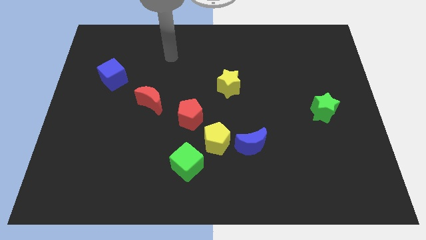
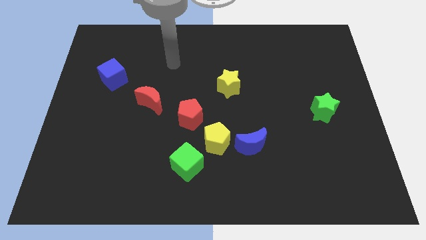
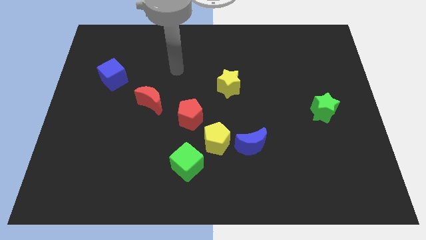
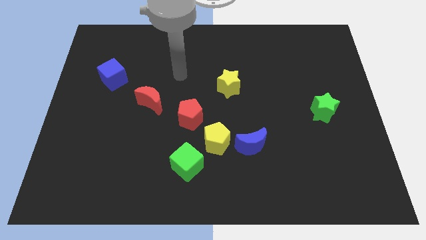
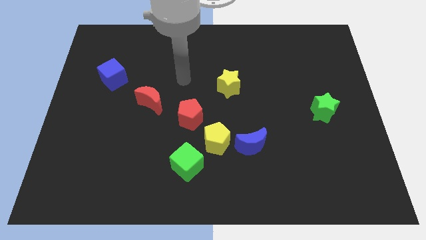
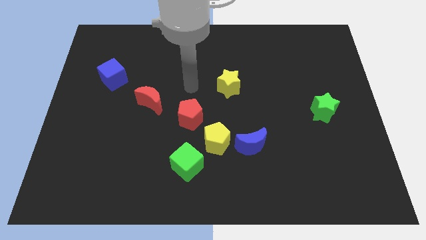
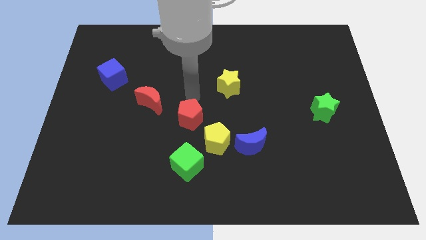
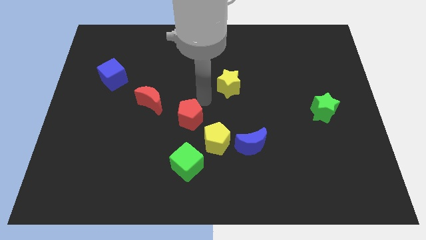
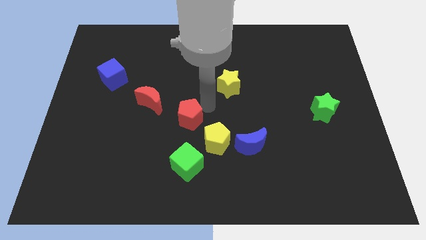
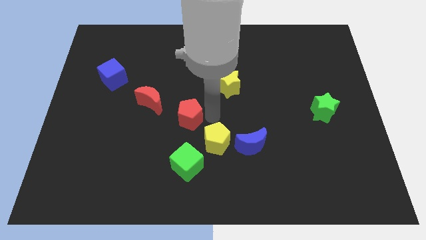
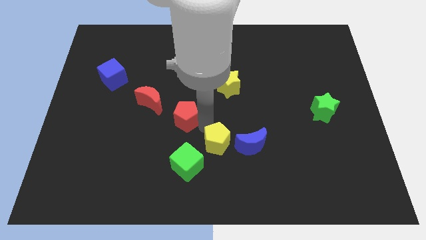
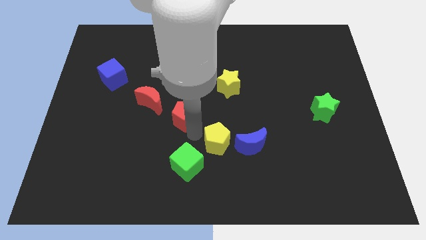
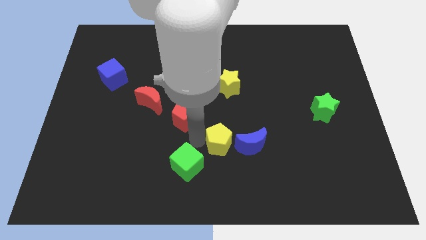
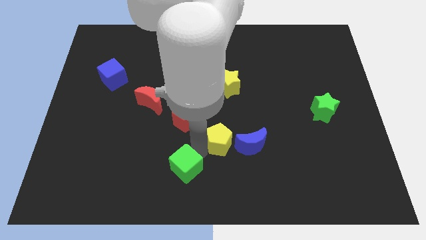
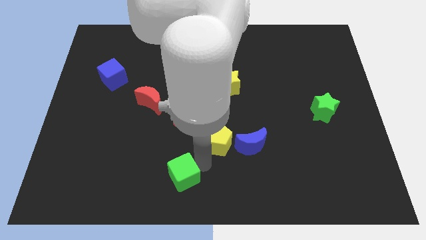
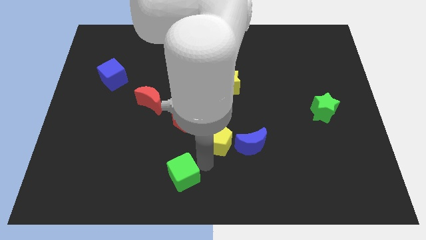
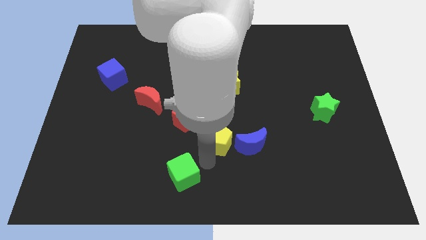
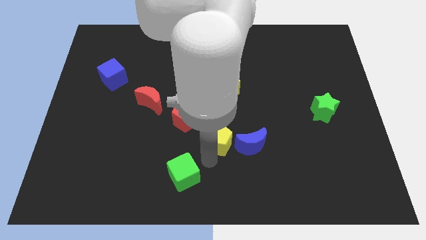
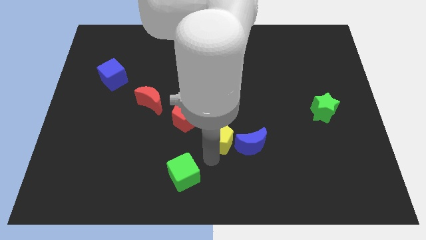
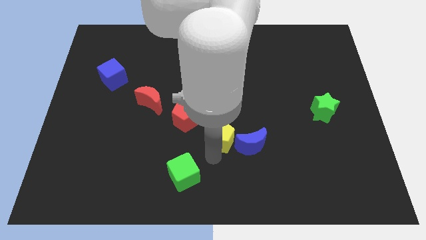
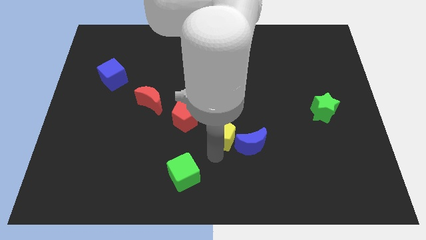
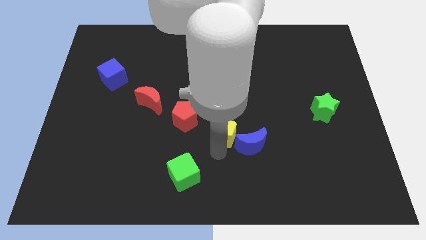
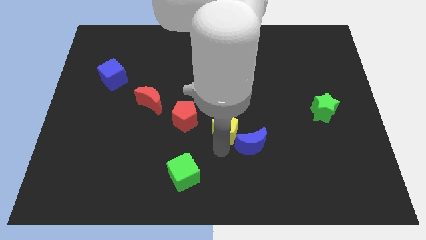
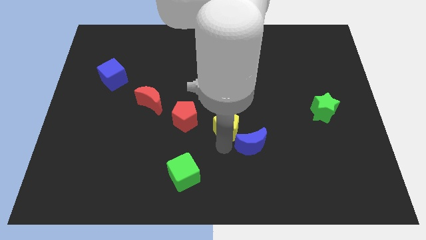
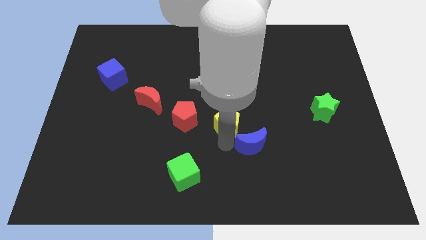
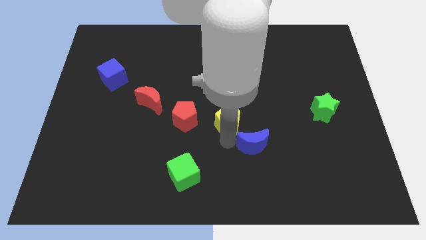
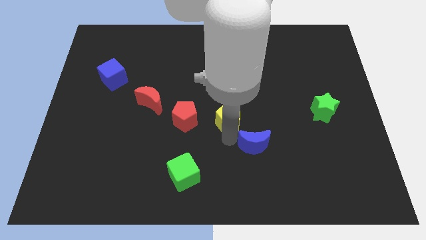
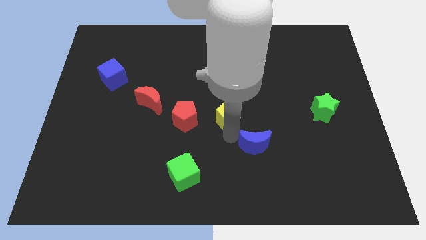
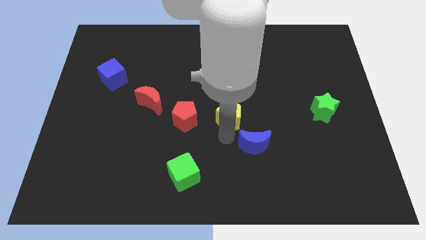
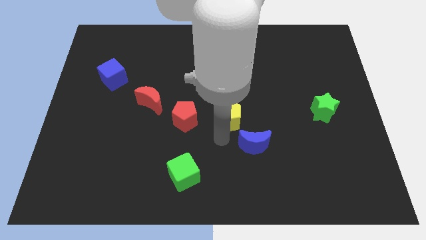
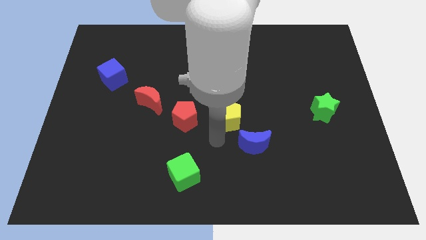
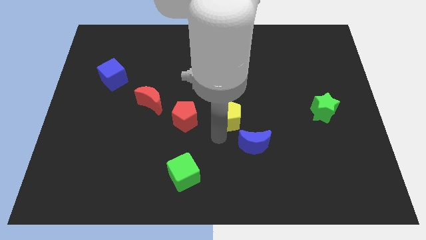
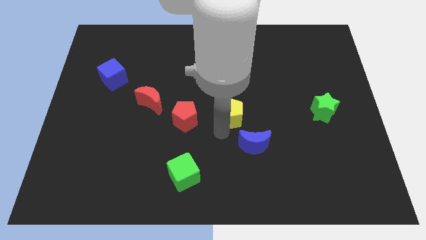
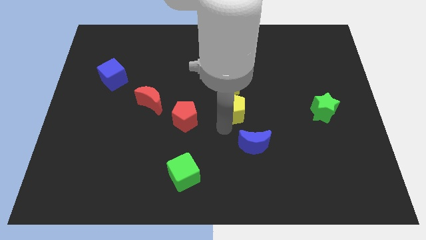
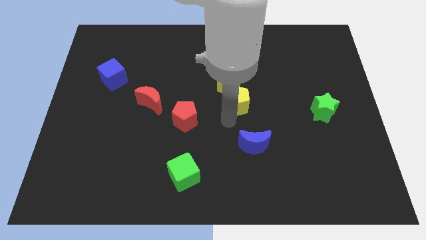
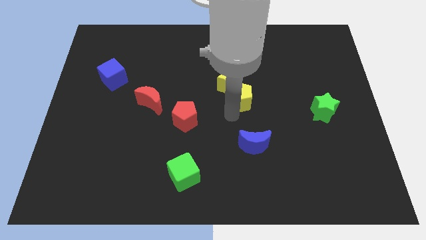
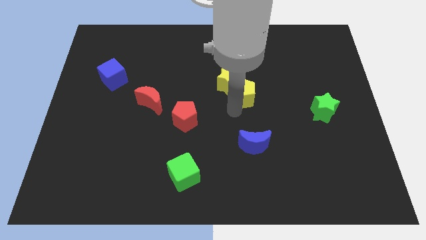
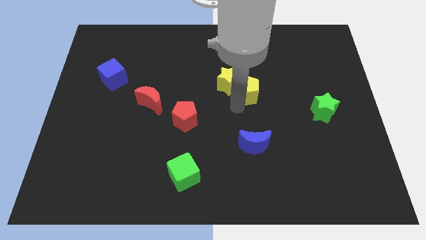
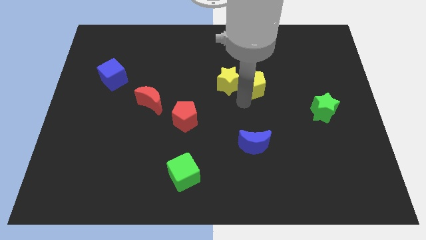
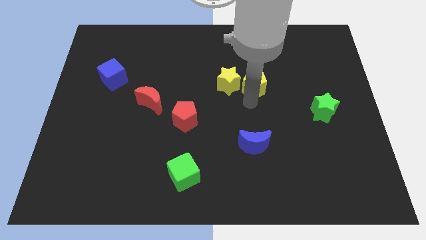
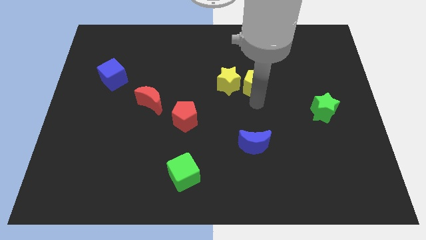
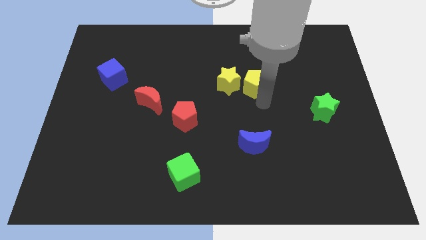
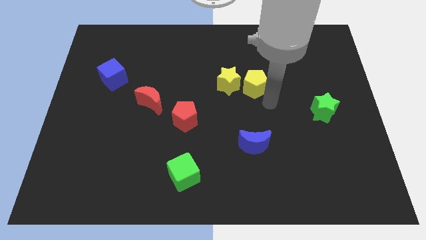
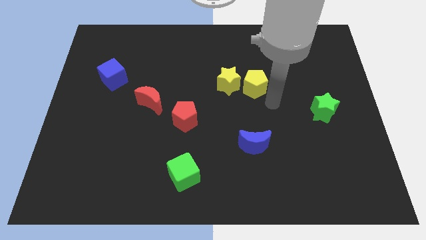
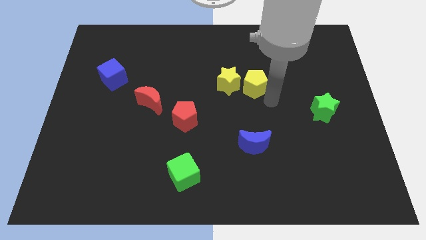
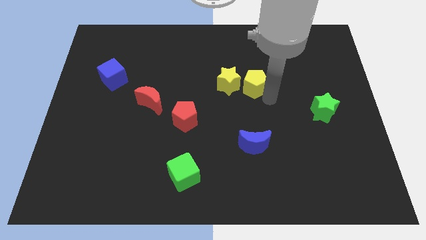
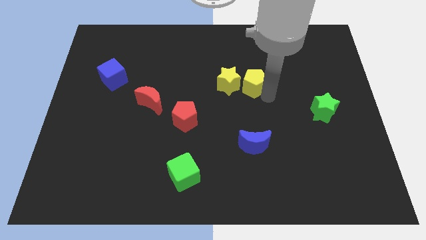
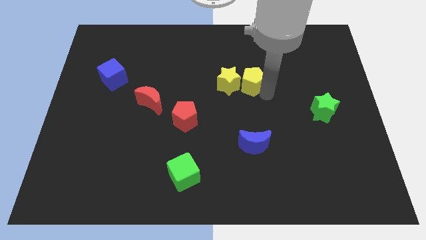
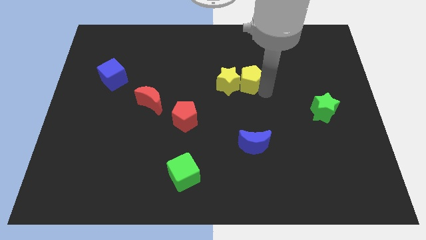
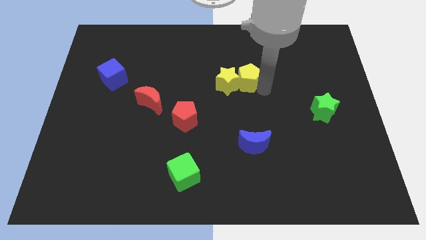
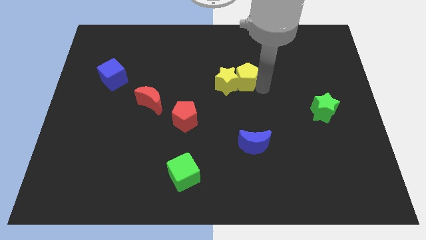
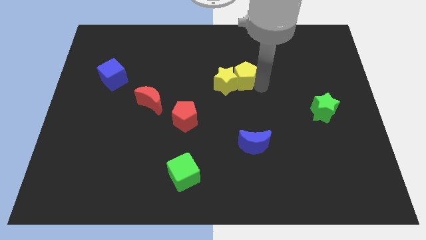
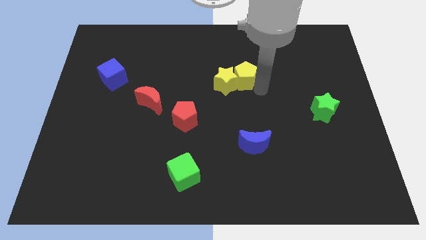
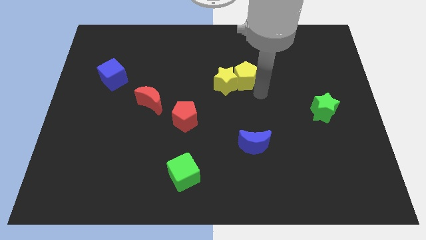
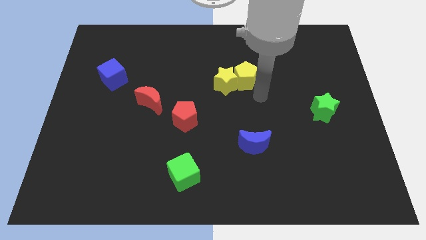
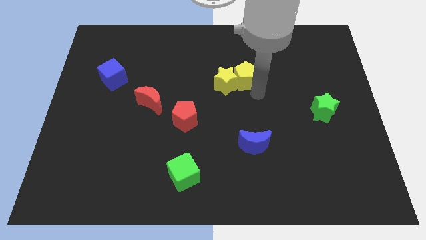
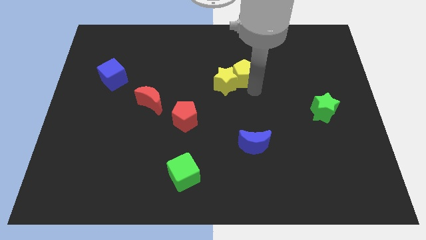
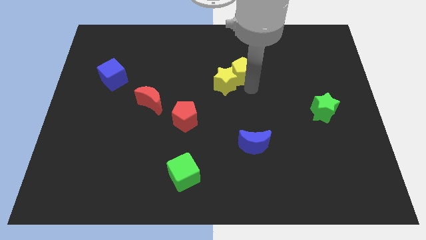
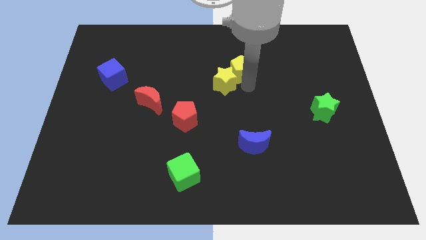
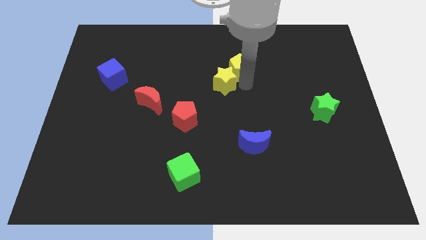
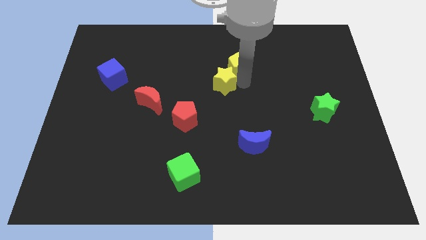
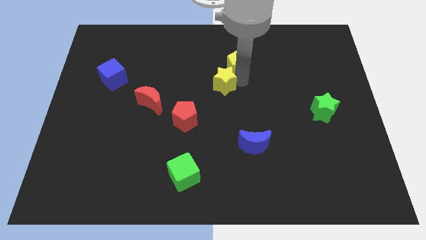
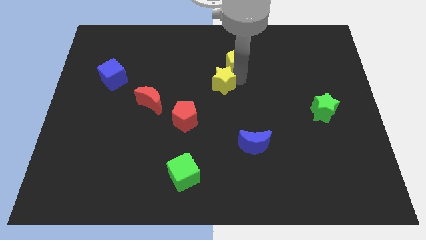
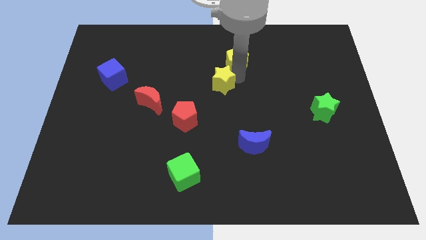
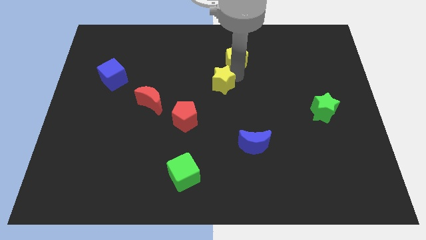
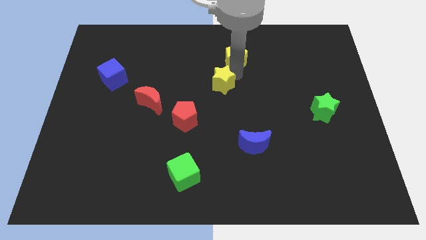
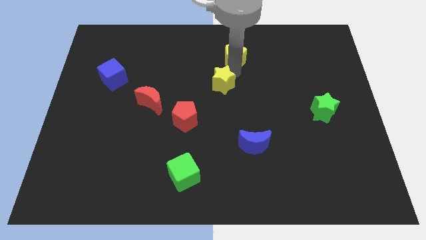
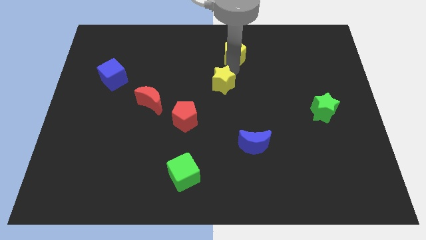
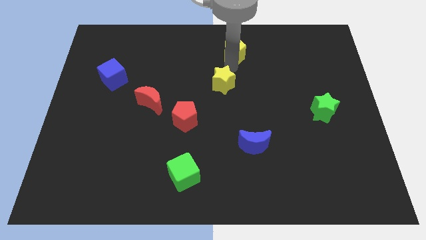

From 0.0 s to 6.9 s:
move the yellow pentagon to the top side
